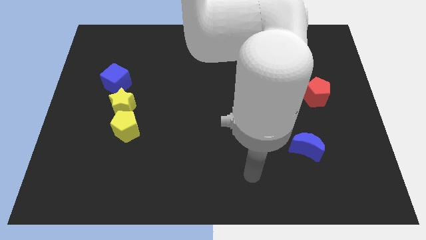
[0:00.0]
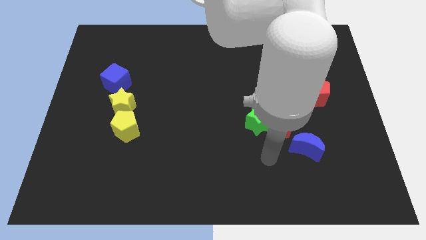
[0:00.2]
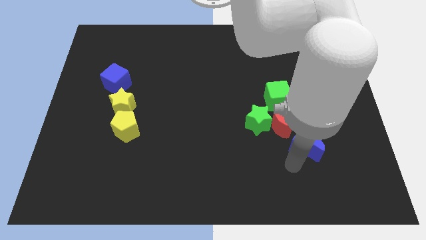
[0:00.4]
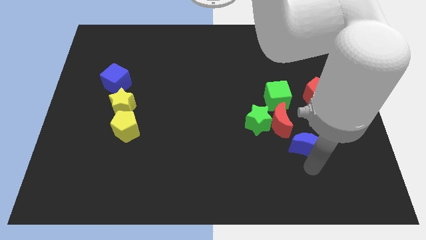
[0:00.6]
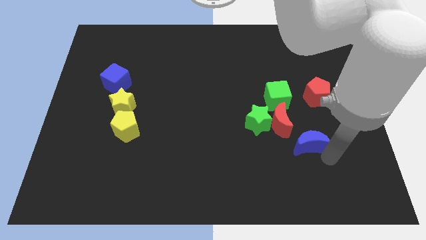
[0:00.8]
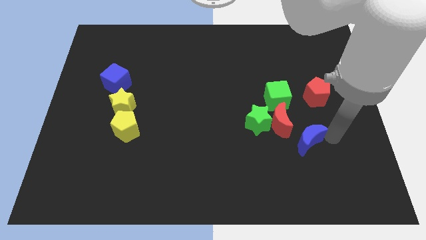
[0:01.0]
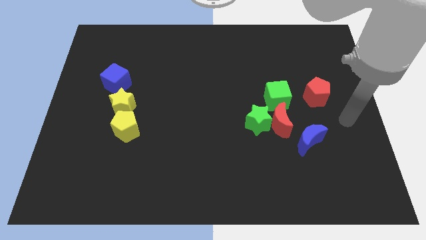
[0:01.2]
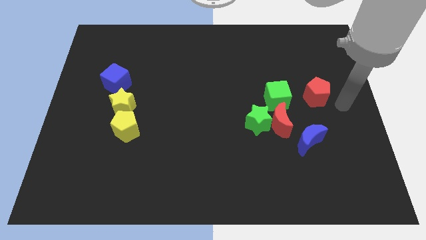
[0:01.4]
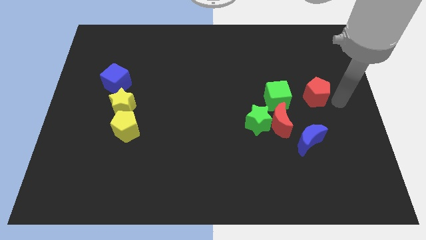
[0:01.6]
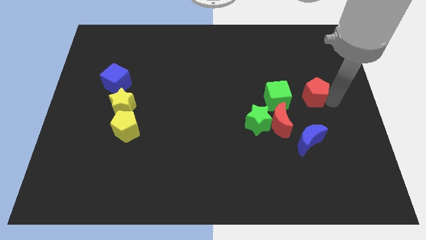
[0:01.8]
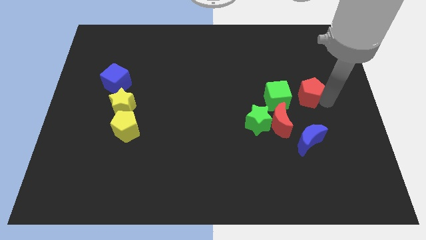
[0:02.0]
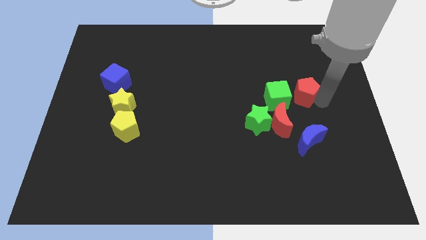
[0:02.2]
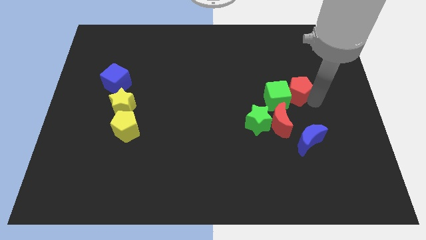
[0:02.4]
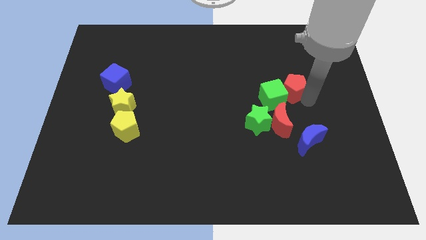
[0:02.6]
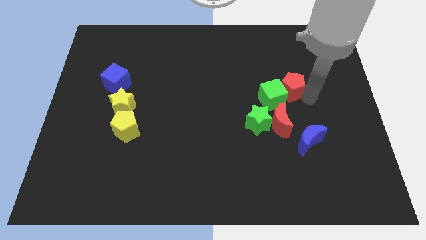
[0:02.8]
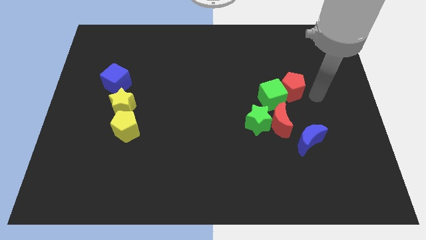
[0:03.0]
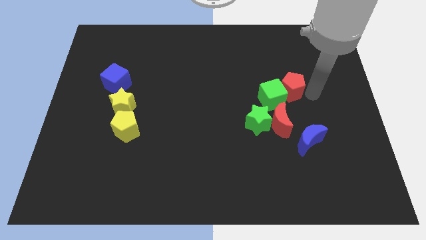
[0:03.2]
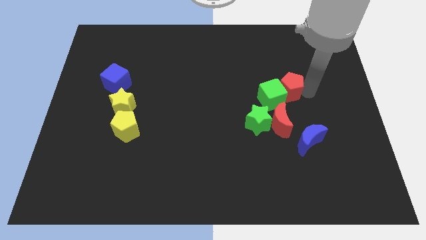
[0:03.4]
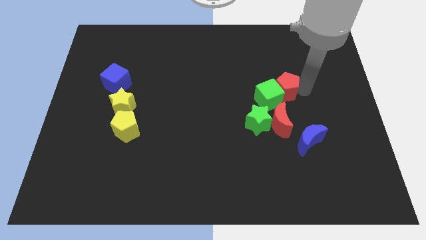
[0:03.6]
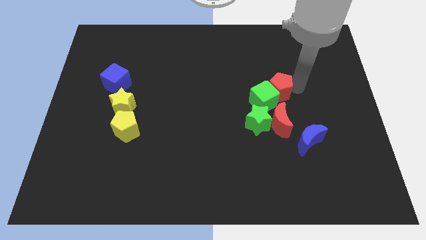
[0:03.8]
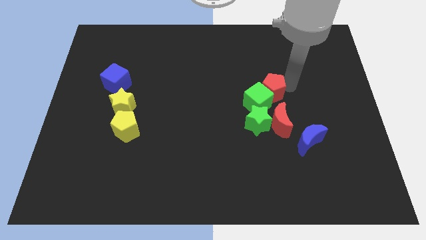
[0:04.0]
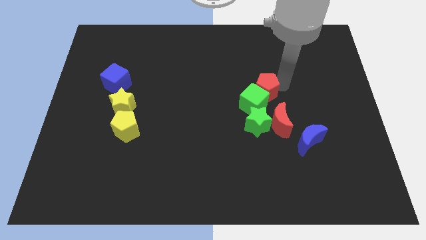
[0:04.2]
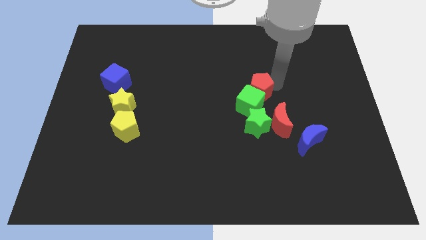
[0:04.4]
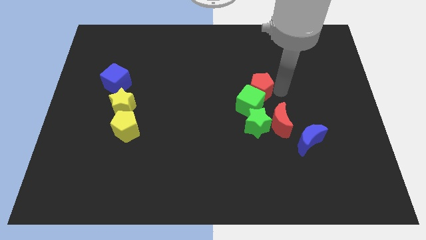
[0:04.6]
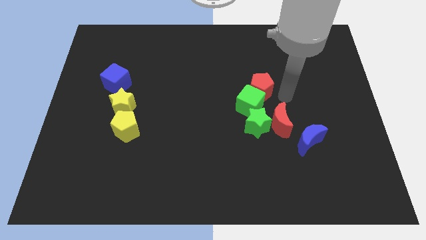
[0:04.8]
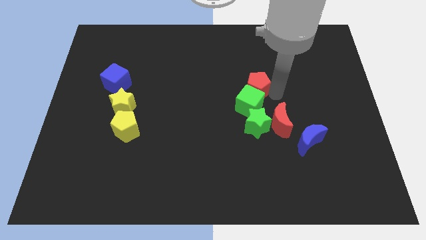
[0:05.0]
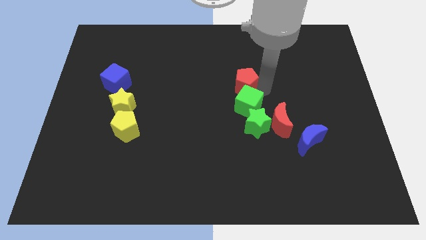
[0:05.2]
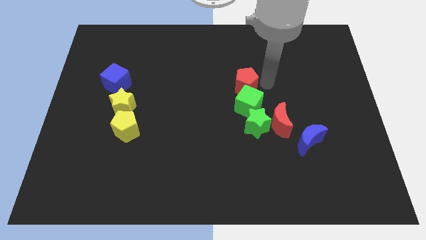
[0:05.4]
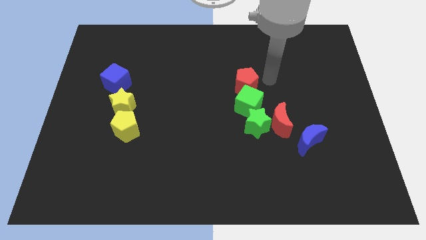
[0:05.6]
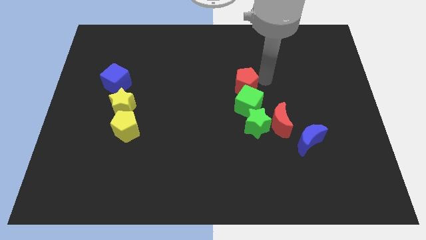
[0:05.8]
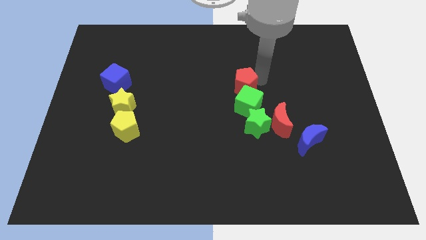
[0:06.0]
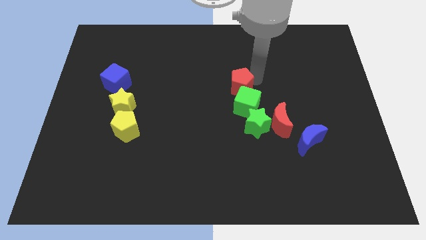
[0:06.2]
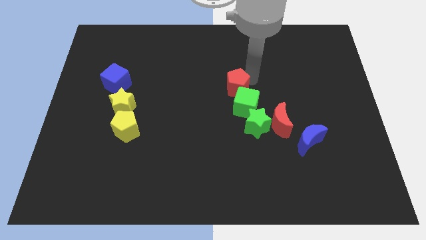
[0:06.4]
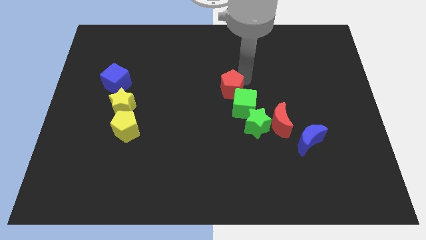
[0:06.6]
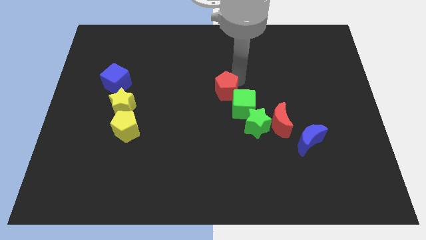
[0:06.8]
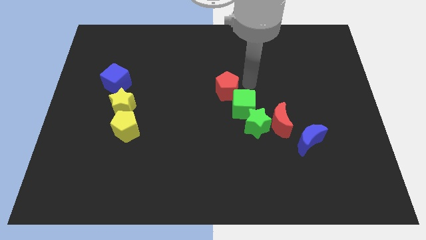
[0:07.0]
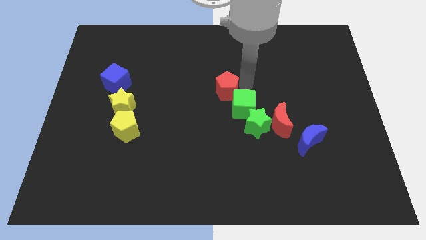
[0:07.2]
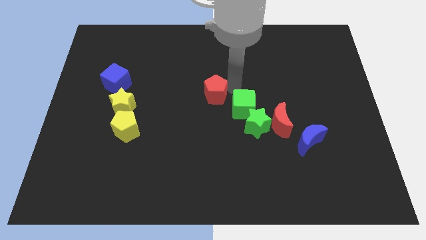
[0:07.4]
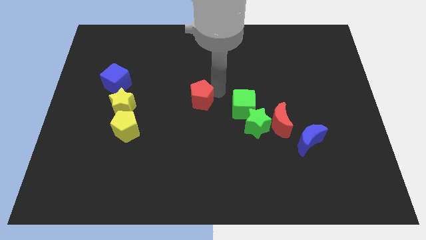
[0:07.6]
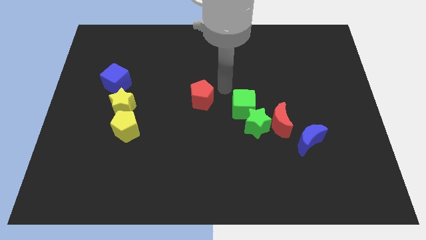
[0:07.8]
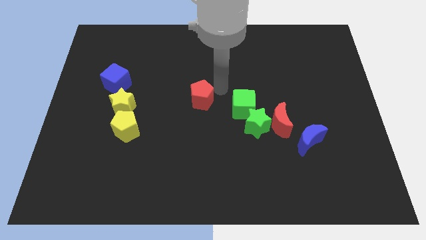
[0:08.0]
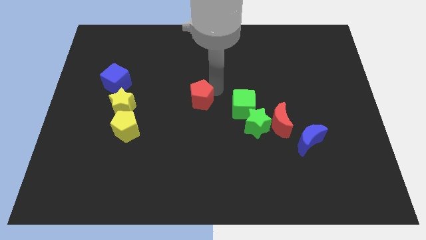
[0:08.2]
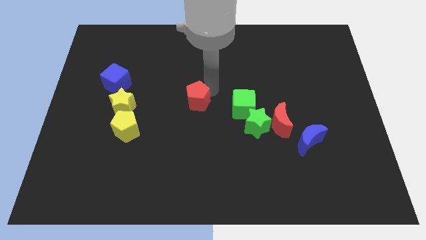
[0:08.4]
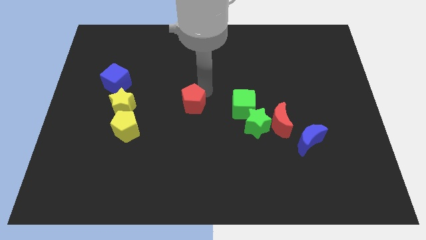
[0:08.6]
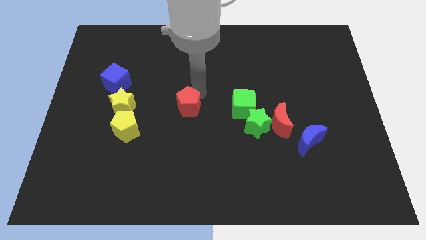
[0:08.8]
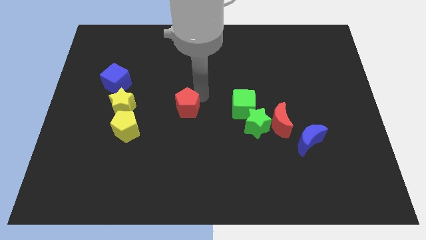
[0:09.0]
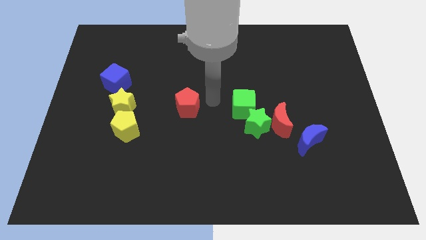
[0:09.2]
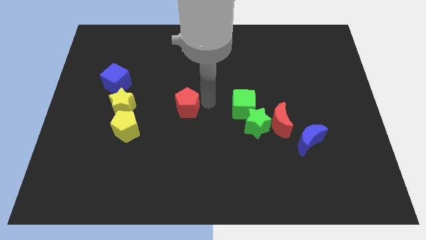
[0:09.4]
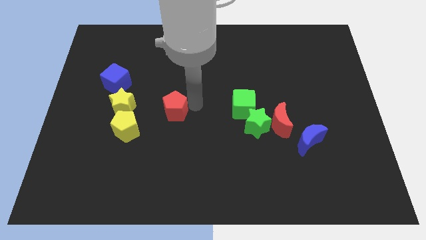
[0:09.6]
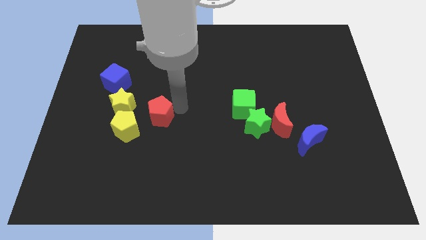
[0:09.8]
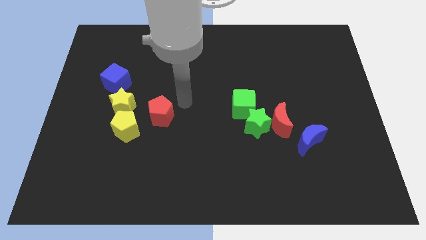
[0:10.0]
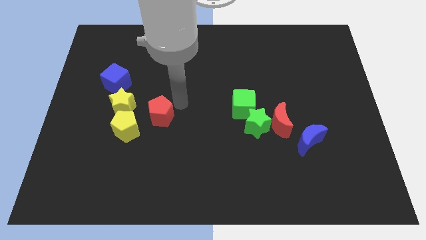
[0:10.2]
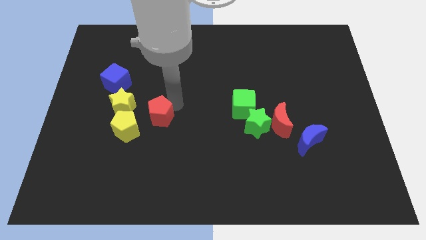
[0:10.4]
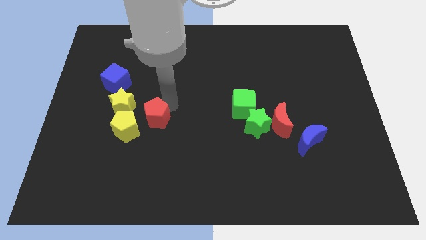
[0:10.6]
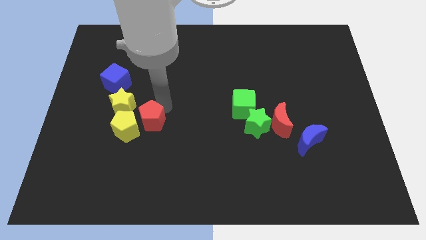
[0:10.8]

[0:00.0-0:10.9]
put the red pentagon towards the yellow pentagon
